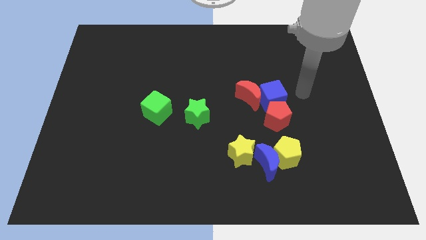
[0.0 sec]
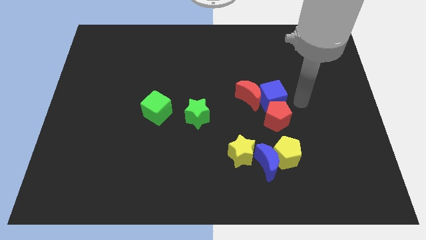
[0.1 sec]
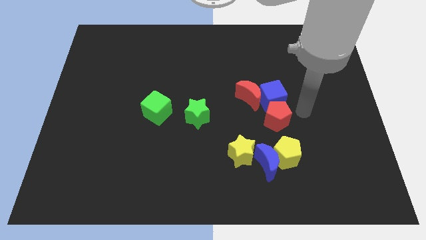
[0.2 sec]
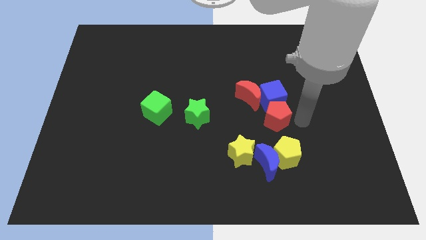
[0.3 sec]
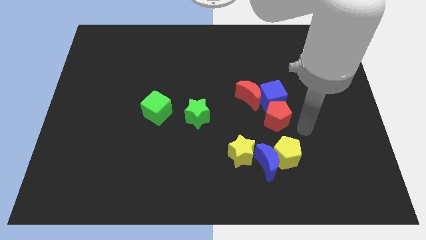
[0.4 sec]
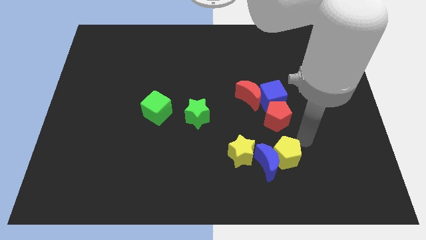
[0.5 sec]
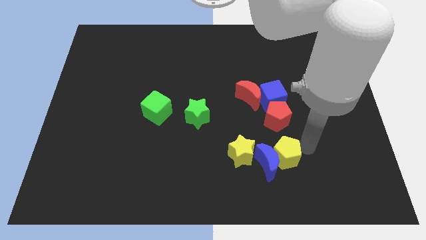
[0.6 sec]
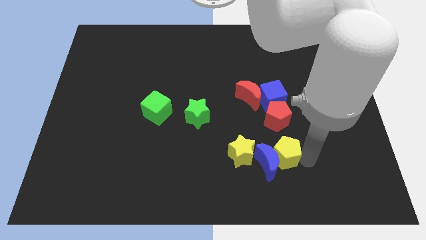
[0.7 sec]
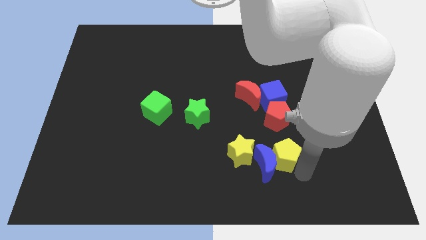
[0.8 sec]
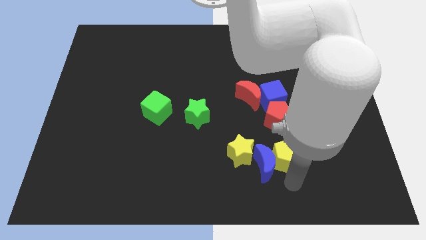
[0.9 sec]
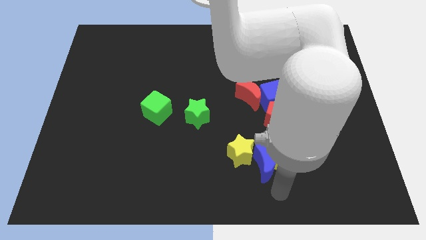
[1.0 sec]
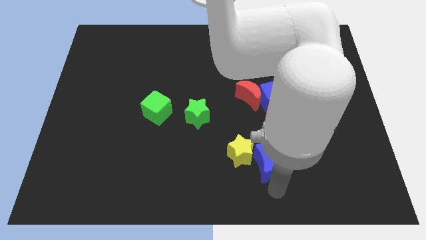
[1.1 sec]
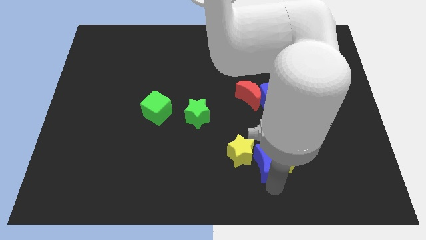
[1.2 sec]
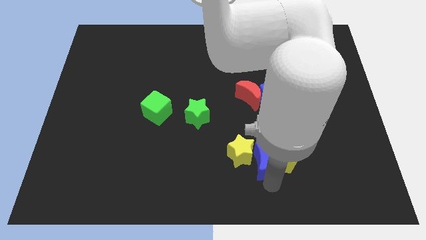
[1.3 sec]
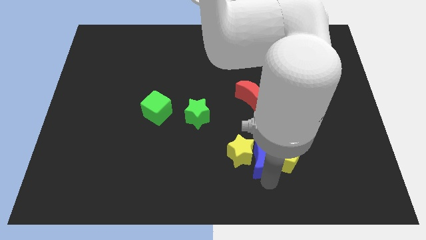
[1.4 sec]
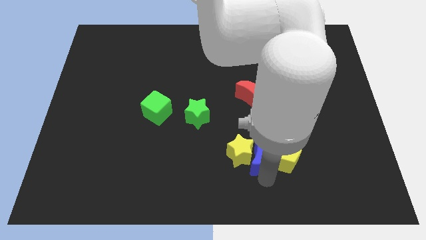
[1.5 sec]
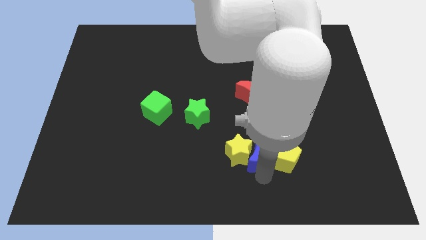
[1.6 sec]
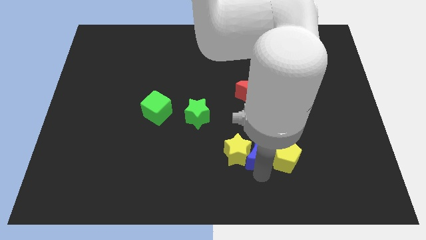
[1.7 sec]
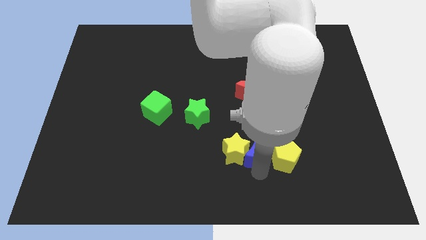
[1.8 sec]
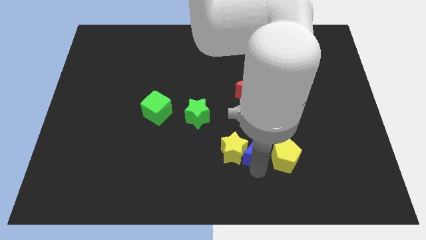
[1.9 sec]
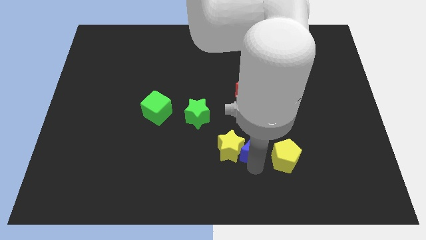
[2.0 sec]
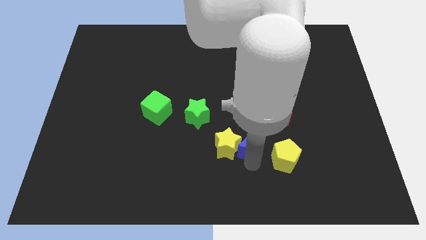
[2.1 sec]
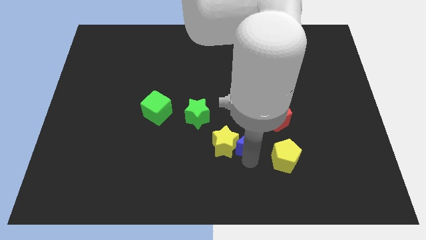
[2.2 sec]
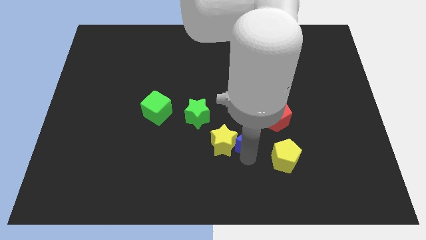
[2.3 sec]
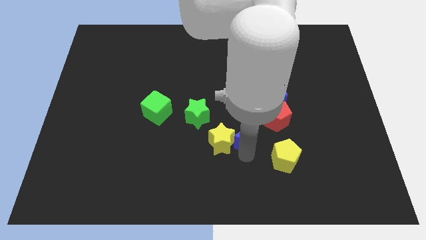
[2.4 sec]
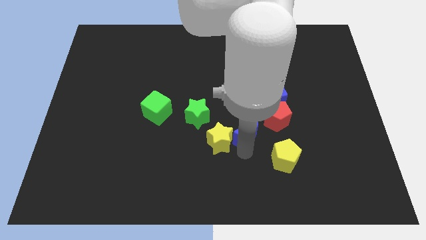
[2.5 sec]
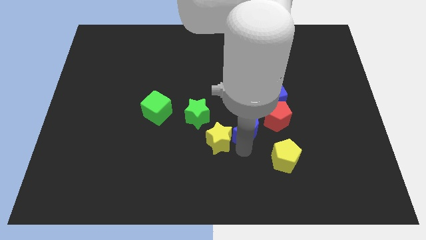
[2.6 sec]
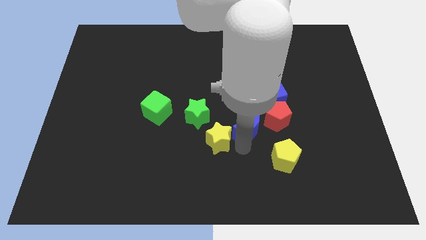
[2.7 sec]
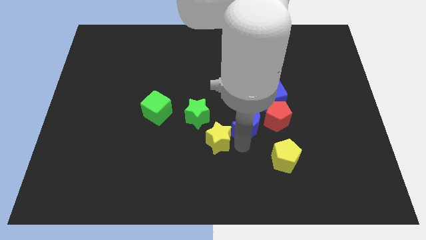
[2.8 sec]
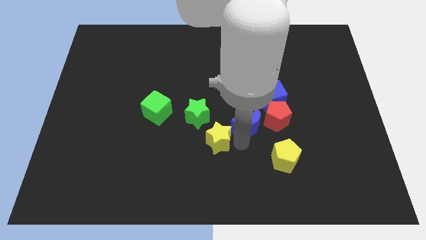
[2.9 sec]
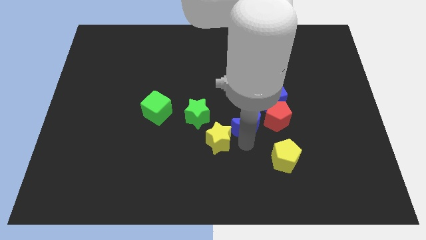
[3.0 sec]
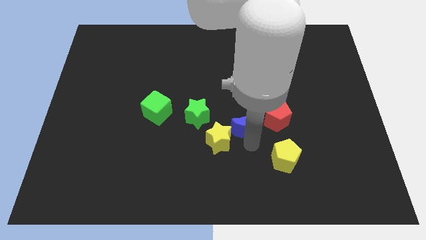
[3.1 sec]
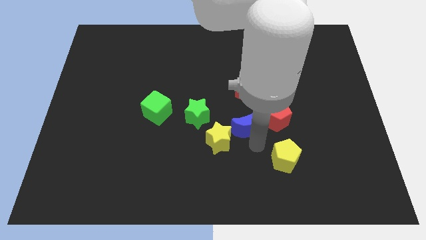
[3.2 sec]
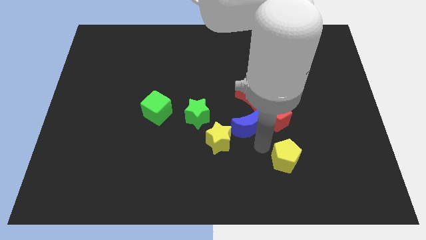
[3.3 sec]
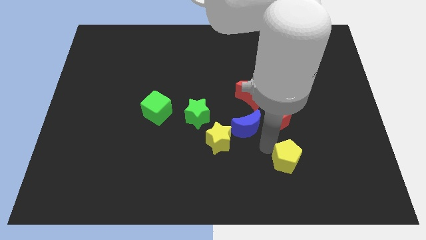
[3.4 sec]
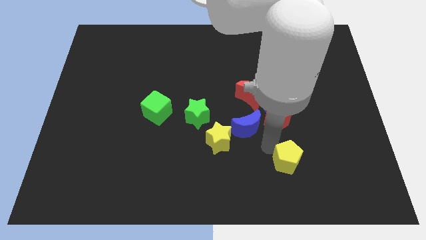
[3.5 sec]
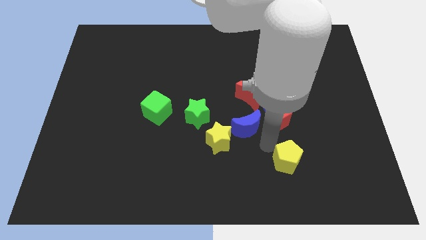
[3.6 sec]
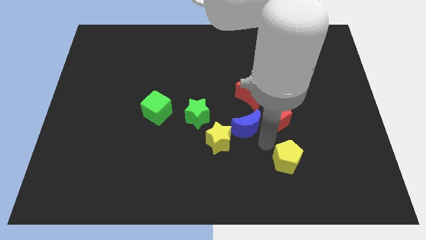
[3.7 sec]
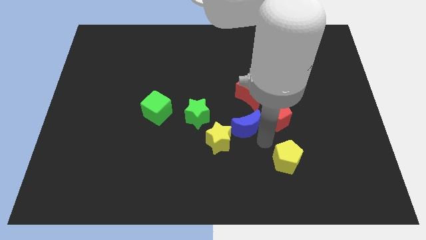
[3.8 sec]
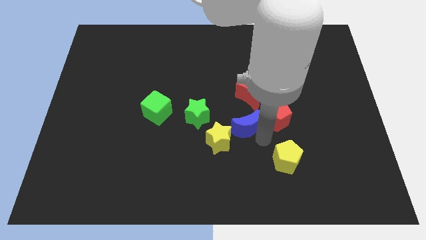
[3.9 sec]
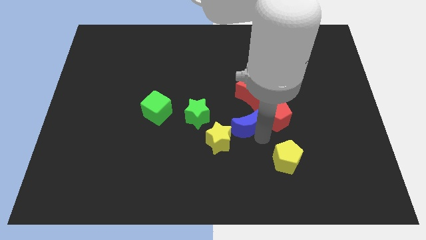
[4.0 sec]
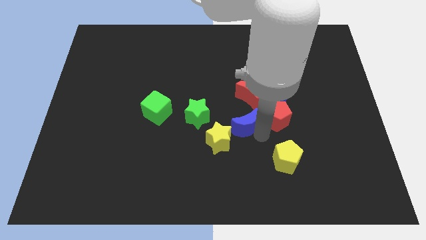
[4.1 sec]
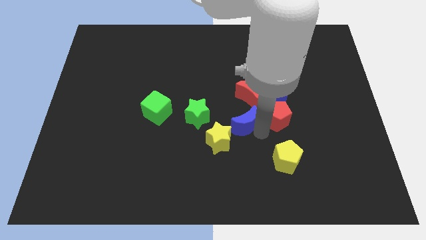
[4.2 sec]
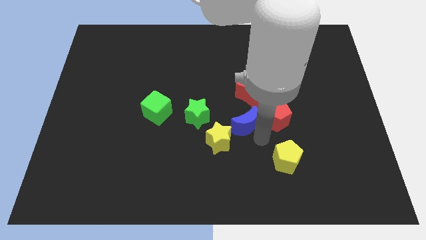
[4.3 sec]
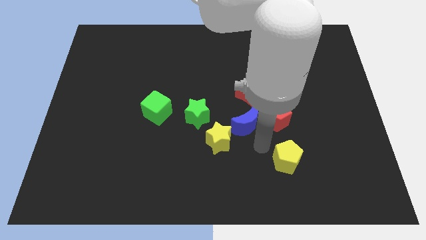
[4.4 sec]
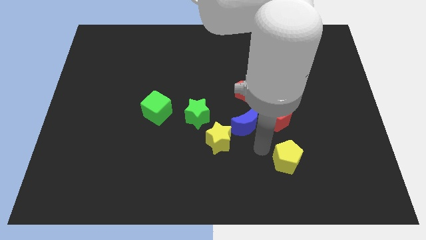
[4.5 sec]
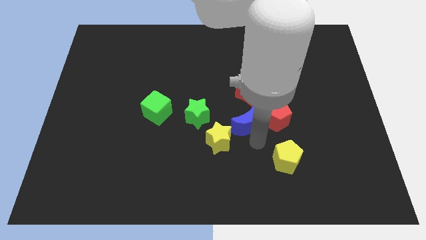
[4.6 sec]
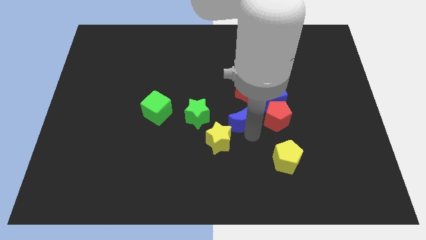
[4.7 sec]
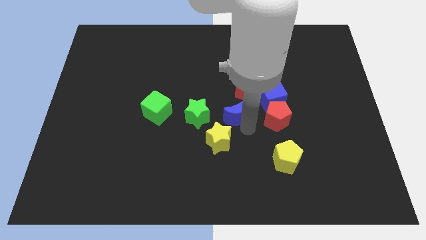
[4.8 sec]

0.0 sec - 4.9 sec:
slide the blue moon to the left of the blue cube

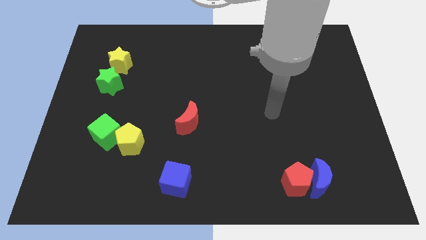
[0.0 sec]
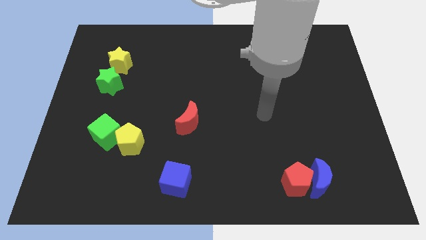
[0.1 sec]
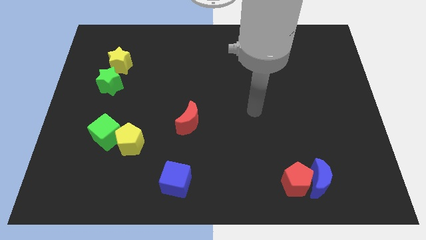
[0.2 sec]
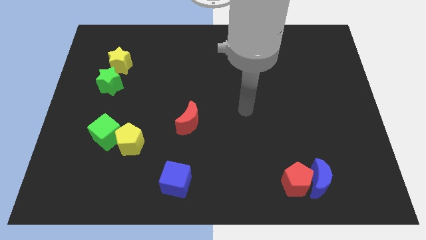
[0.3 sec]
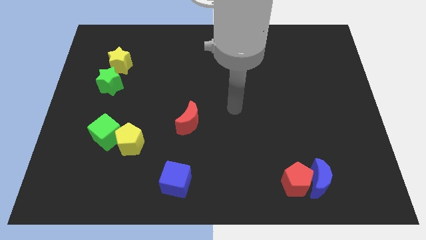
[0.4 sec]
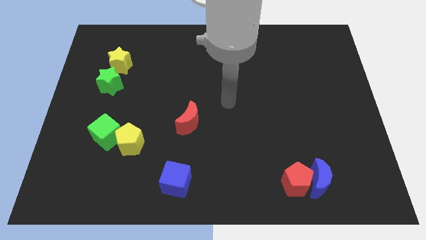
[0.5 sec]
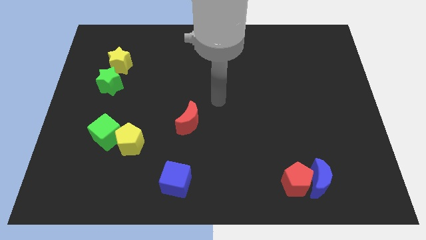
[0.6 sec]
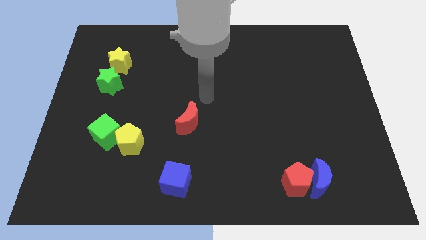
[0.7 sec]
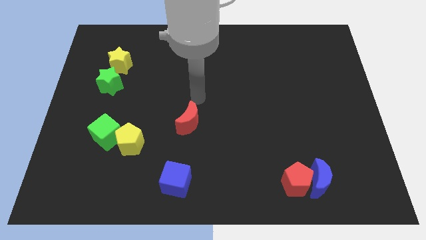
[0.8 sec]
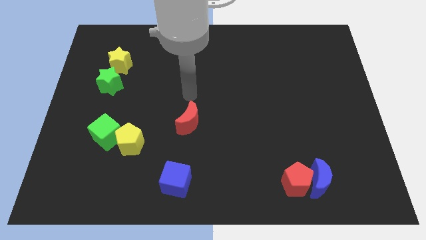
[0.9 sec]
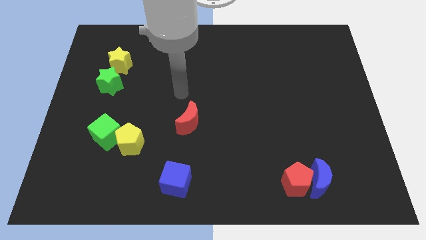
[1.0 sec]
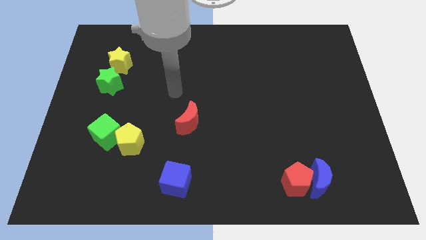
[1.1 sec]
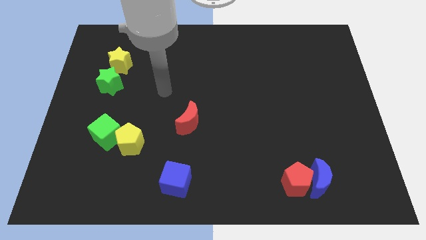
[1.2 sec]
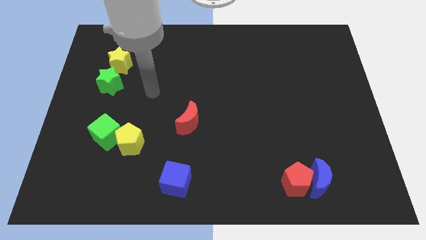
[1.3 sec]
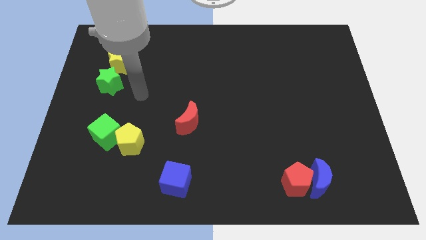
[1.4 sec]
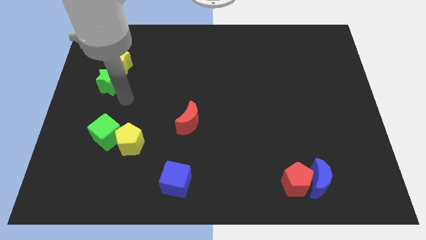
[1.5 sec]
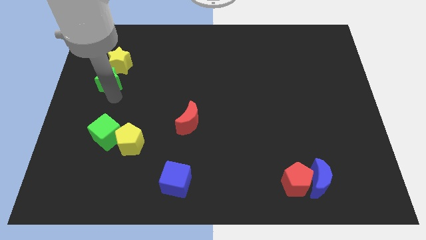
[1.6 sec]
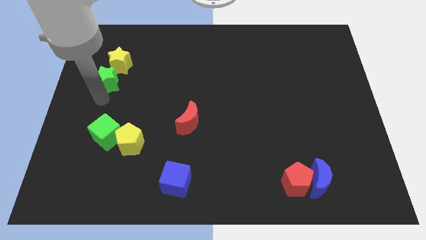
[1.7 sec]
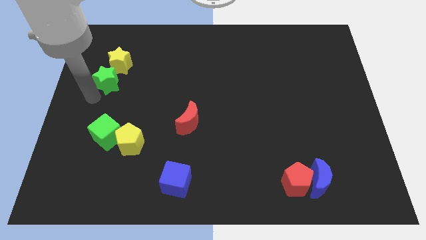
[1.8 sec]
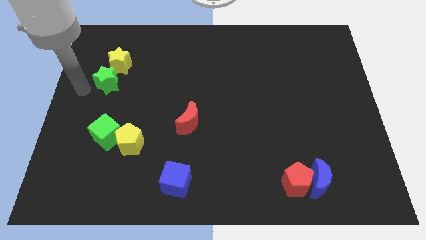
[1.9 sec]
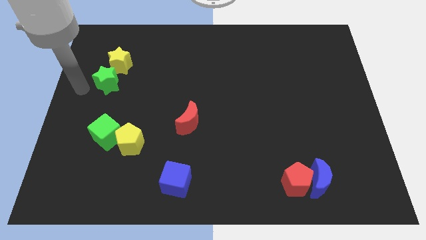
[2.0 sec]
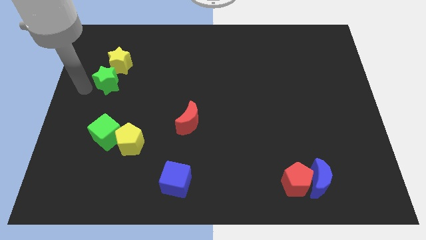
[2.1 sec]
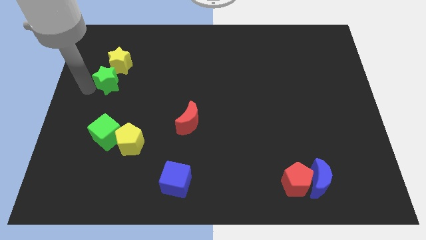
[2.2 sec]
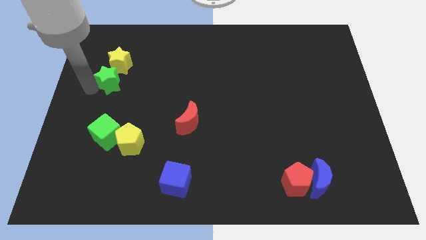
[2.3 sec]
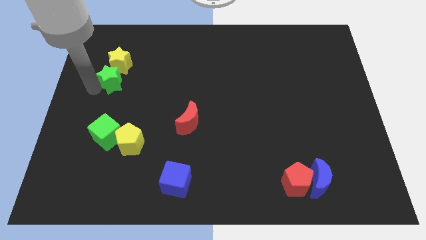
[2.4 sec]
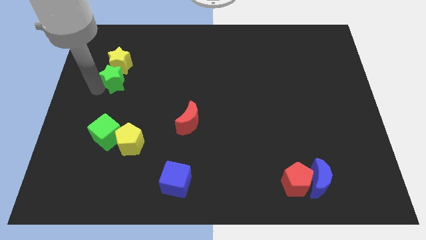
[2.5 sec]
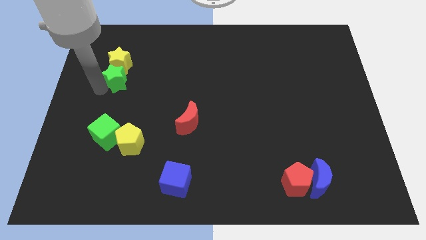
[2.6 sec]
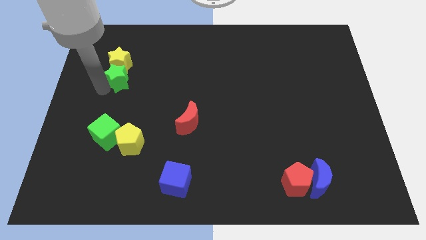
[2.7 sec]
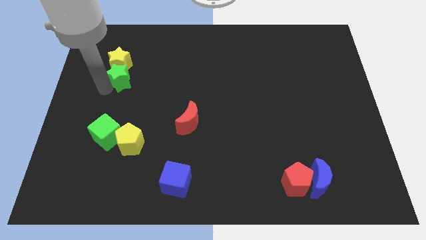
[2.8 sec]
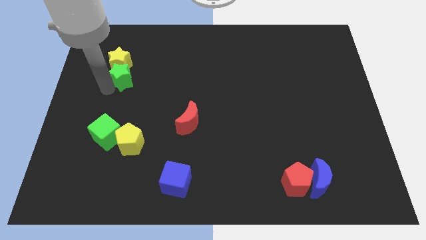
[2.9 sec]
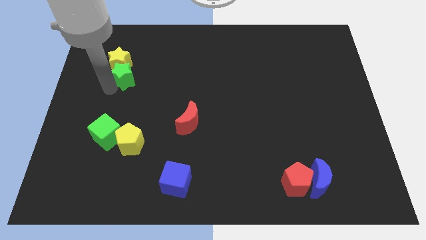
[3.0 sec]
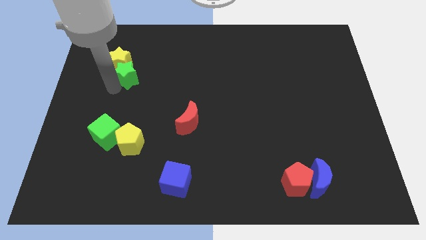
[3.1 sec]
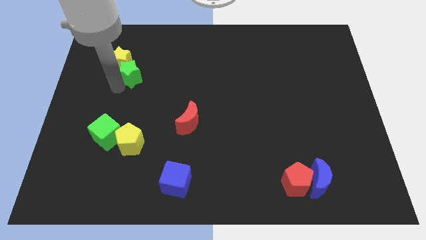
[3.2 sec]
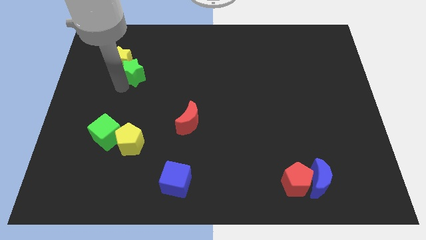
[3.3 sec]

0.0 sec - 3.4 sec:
put the green star to the right of the yellow star
